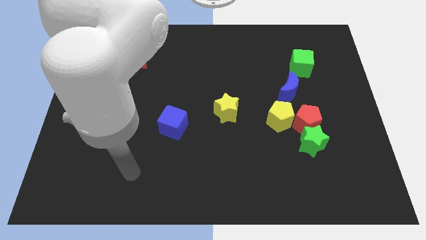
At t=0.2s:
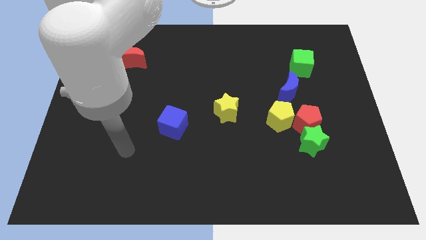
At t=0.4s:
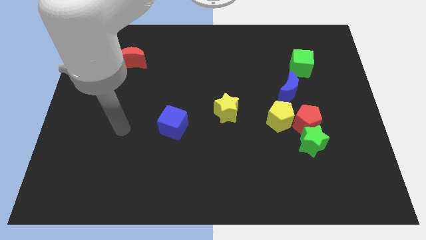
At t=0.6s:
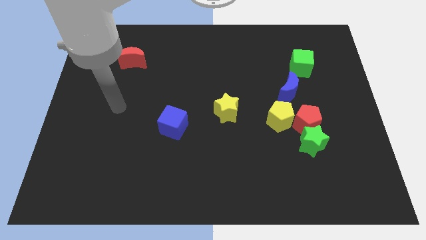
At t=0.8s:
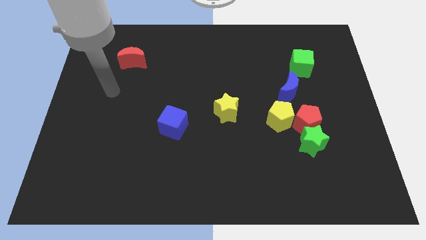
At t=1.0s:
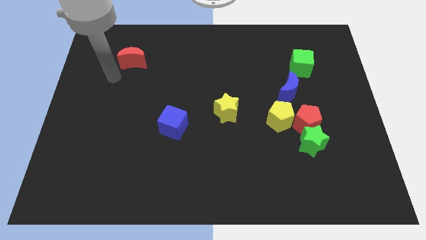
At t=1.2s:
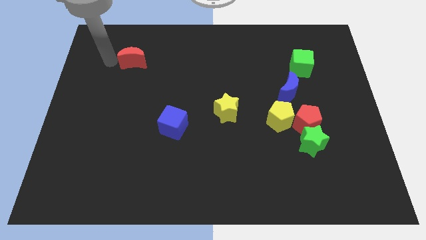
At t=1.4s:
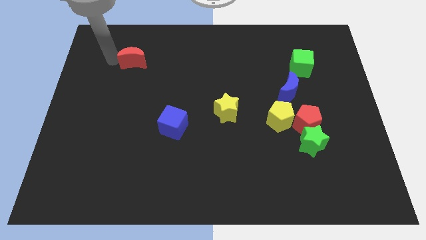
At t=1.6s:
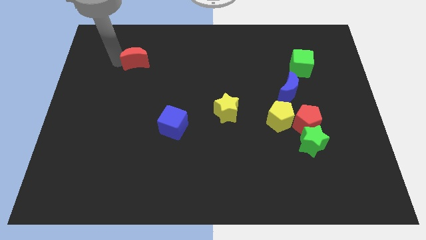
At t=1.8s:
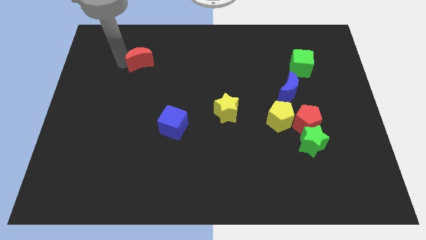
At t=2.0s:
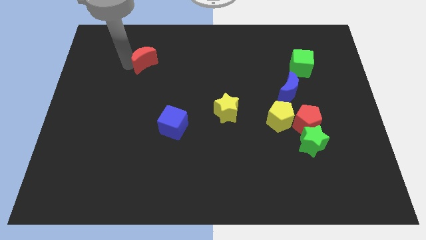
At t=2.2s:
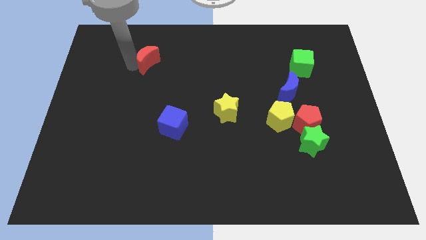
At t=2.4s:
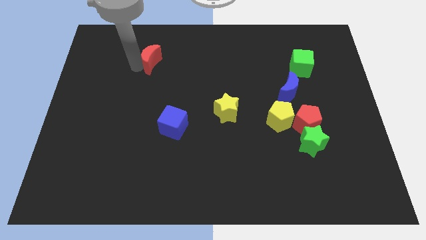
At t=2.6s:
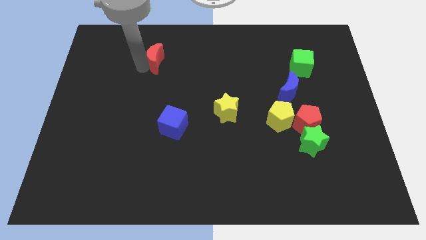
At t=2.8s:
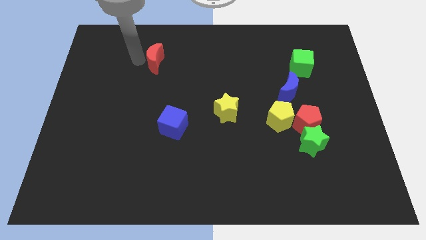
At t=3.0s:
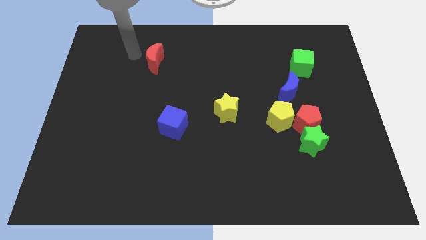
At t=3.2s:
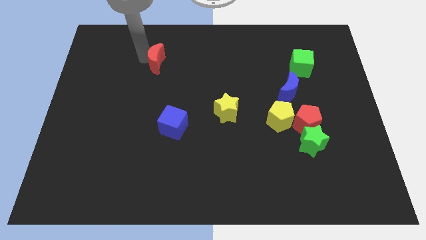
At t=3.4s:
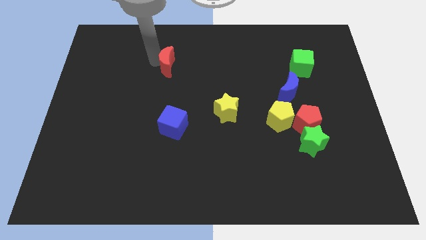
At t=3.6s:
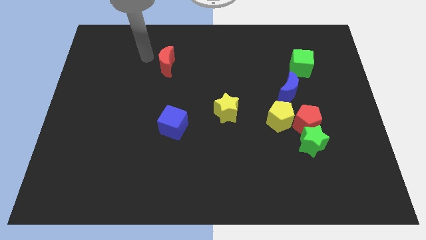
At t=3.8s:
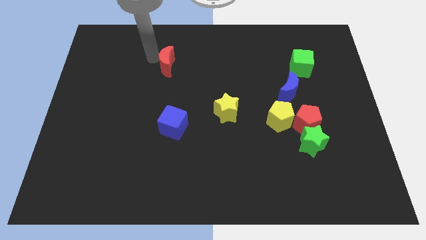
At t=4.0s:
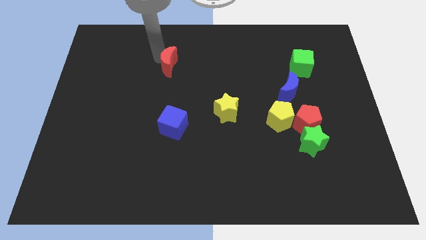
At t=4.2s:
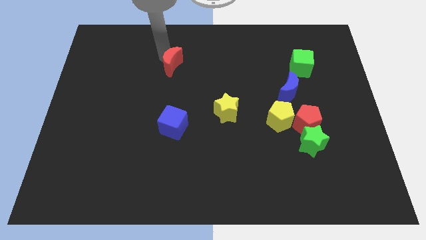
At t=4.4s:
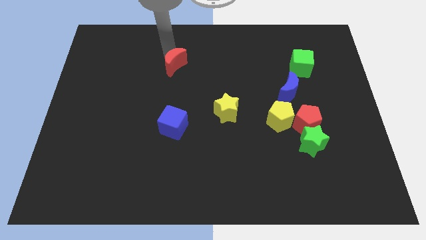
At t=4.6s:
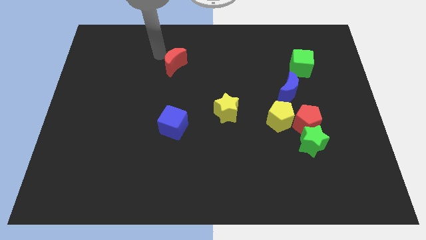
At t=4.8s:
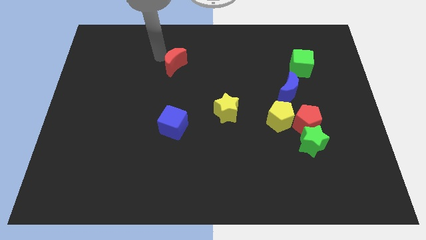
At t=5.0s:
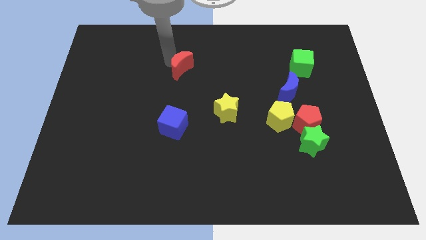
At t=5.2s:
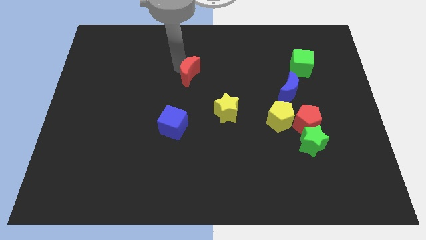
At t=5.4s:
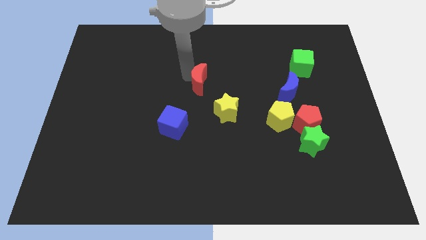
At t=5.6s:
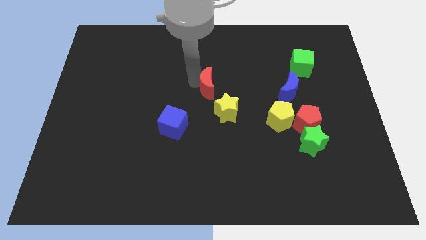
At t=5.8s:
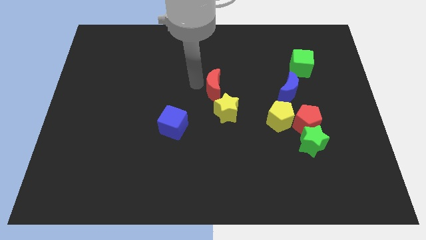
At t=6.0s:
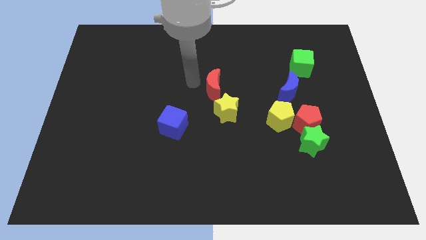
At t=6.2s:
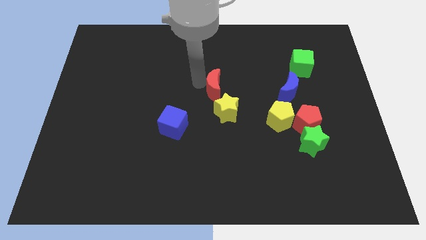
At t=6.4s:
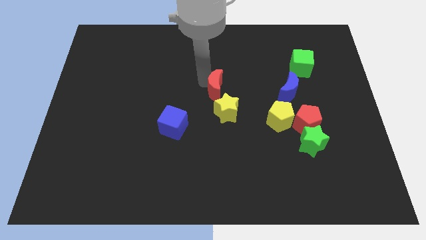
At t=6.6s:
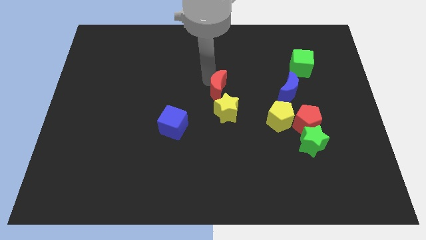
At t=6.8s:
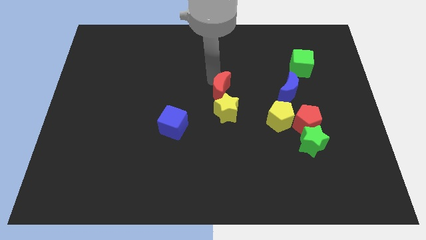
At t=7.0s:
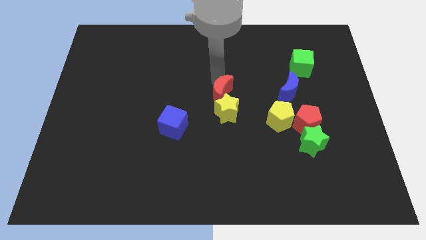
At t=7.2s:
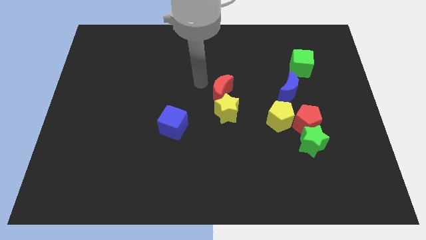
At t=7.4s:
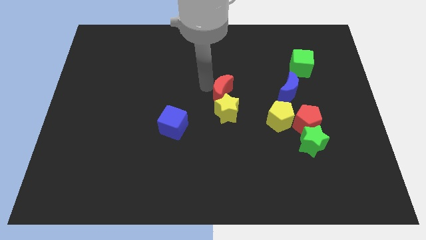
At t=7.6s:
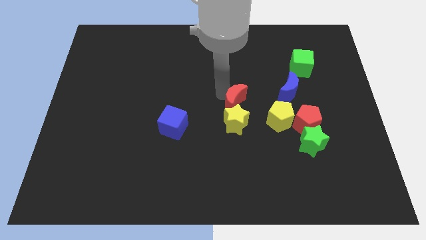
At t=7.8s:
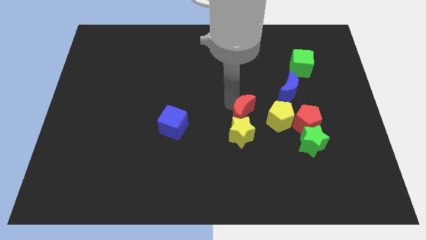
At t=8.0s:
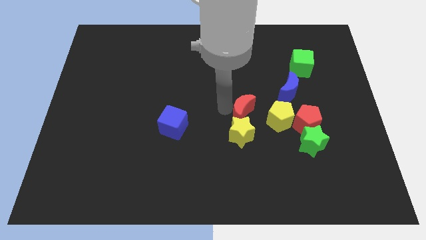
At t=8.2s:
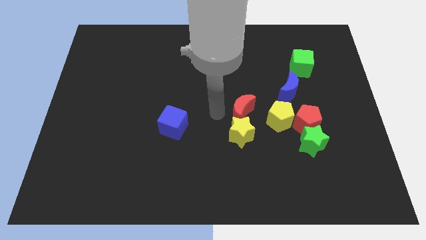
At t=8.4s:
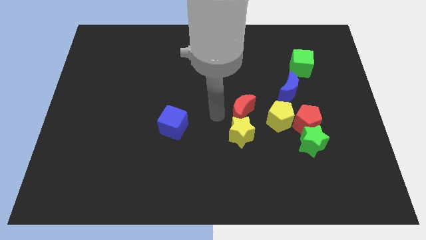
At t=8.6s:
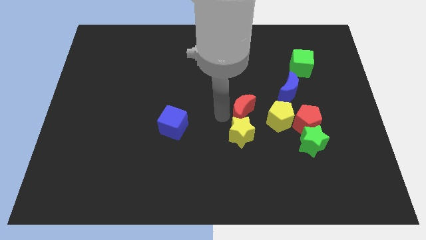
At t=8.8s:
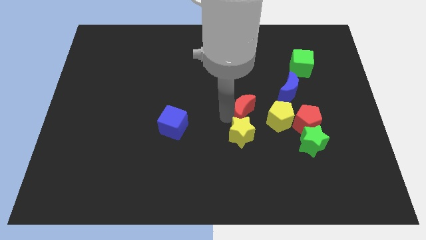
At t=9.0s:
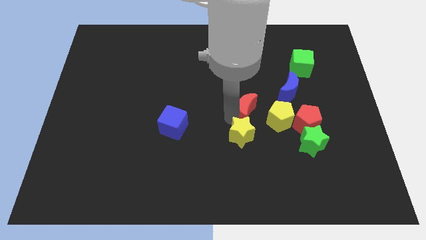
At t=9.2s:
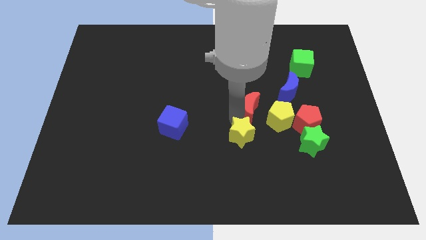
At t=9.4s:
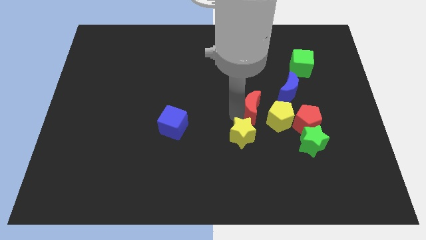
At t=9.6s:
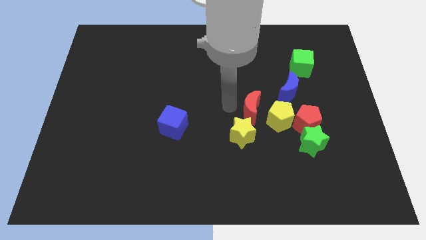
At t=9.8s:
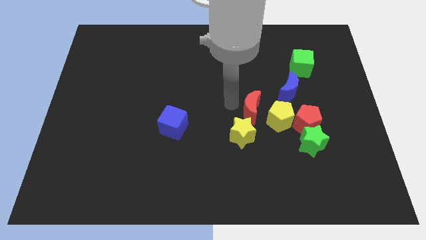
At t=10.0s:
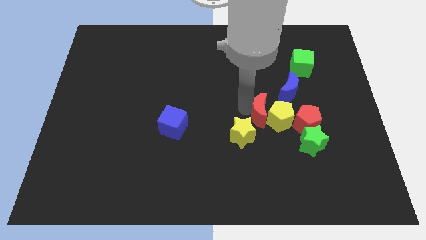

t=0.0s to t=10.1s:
slide the red moon to the yellow pentagon

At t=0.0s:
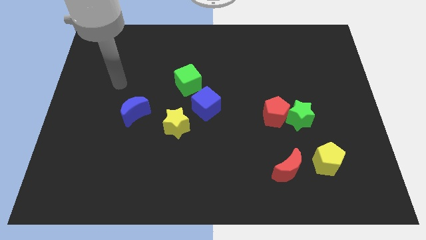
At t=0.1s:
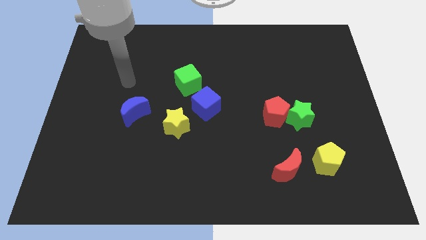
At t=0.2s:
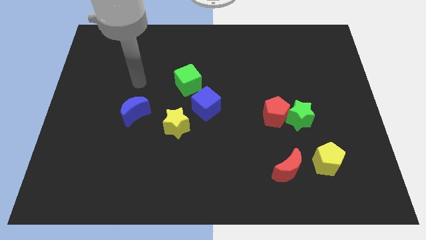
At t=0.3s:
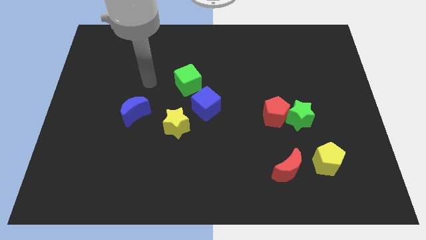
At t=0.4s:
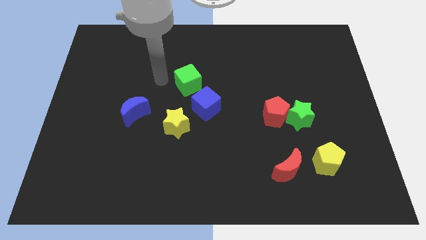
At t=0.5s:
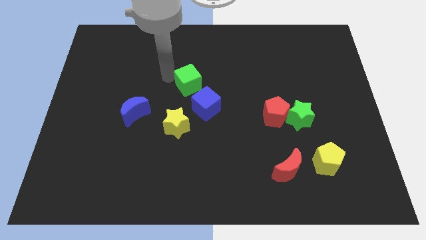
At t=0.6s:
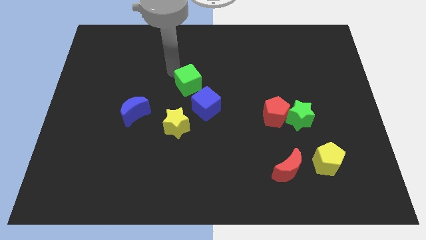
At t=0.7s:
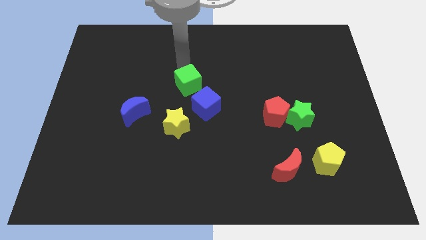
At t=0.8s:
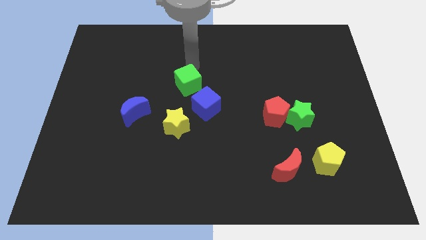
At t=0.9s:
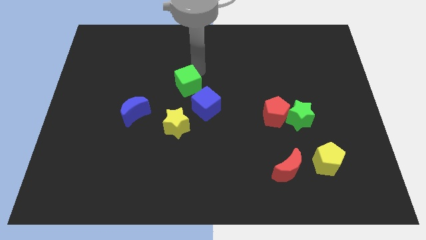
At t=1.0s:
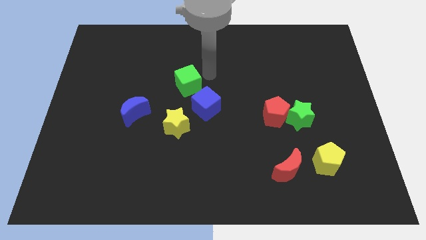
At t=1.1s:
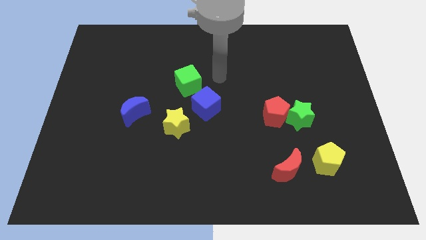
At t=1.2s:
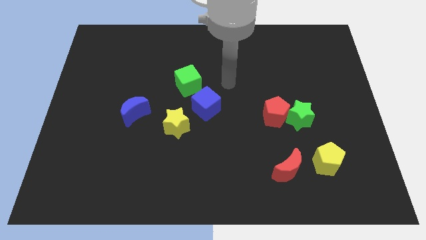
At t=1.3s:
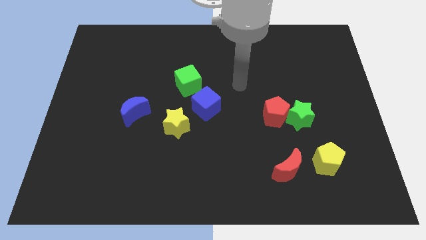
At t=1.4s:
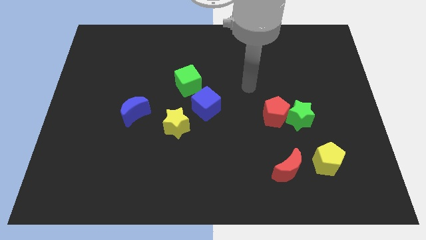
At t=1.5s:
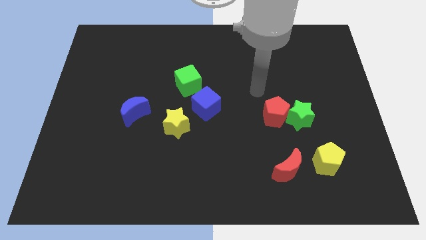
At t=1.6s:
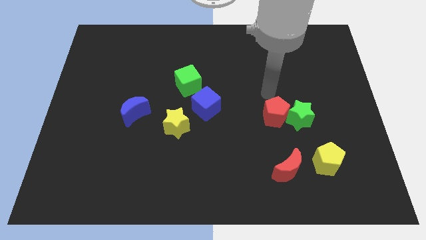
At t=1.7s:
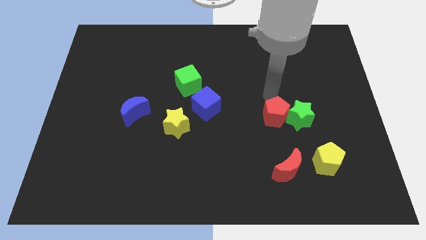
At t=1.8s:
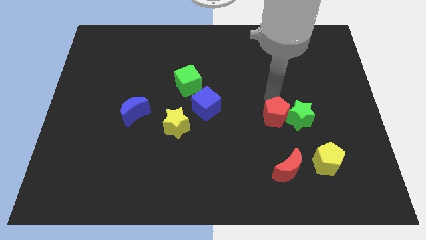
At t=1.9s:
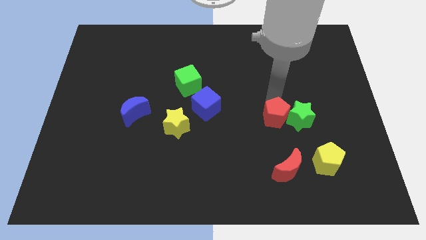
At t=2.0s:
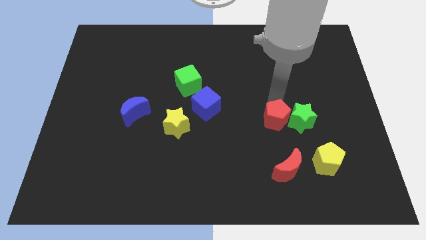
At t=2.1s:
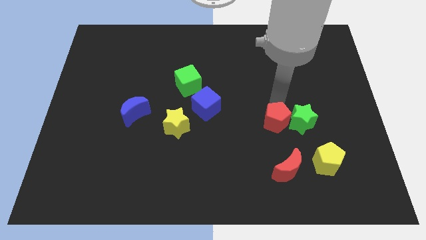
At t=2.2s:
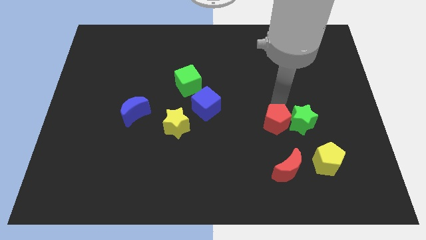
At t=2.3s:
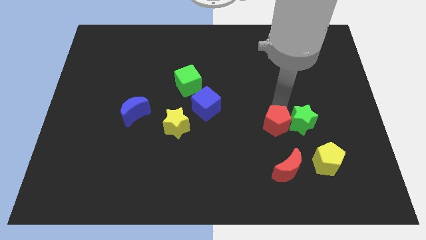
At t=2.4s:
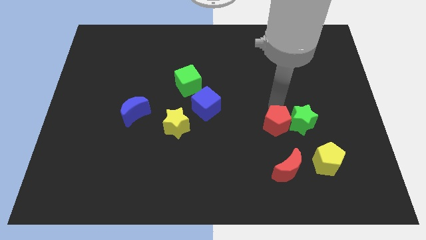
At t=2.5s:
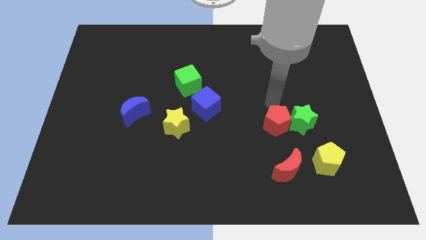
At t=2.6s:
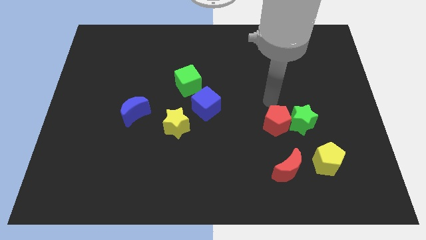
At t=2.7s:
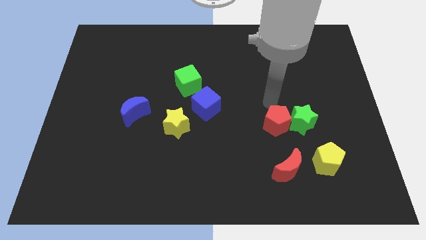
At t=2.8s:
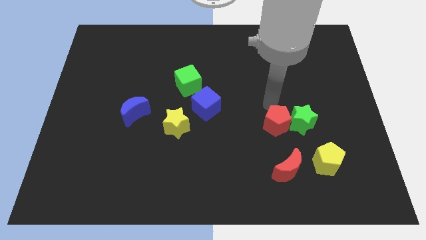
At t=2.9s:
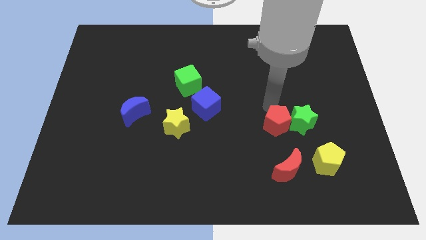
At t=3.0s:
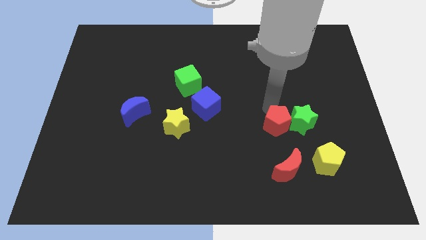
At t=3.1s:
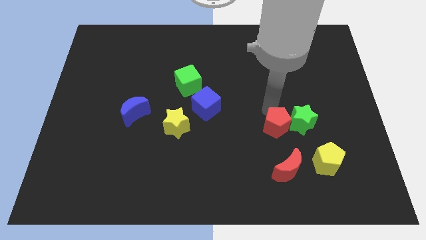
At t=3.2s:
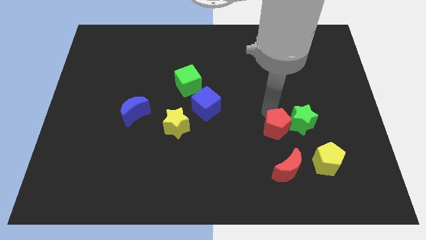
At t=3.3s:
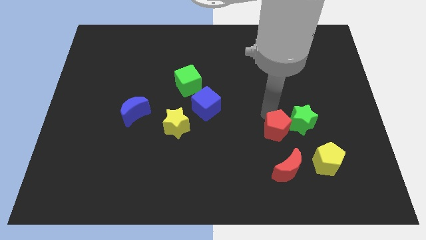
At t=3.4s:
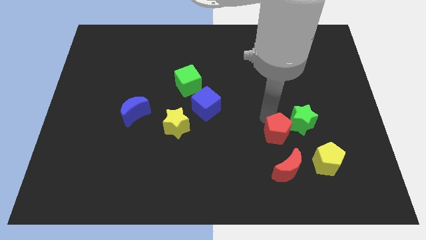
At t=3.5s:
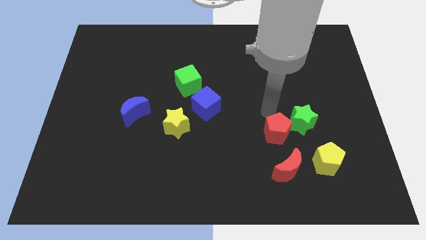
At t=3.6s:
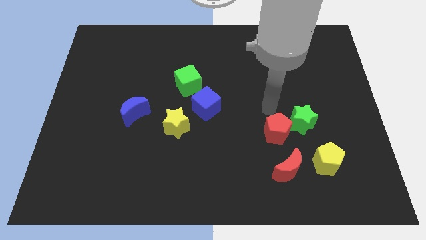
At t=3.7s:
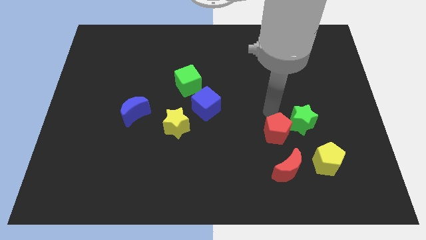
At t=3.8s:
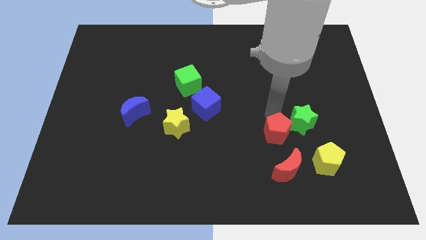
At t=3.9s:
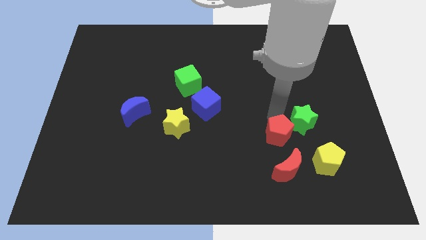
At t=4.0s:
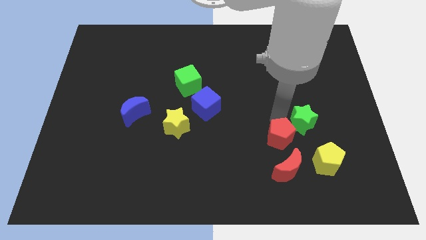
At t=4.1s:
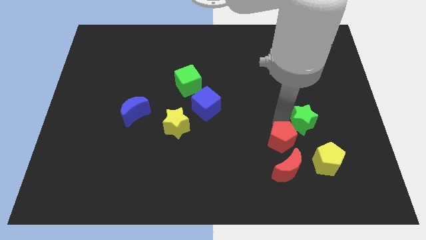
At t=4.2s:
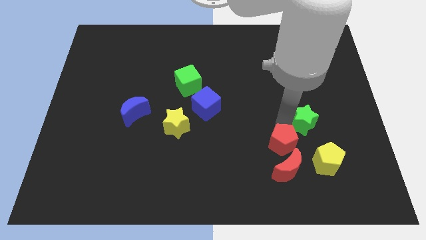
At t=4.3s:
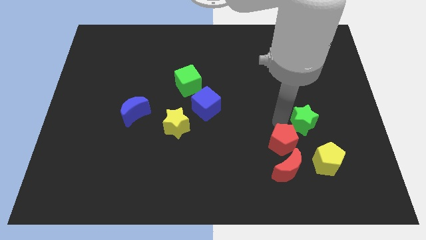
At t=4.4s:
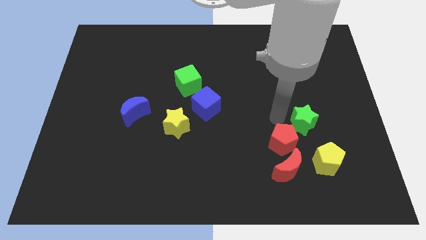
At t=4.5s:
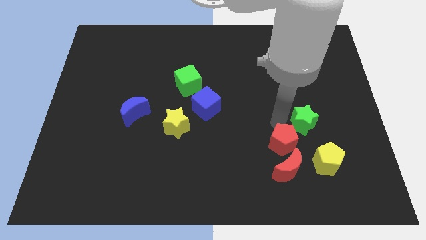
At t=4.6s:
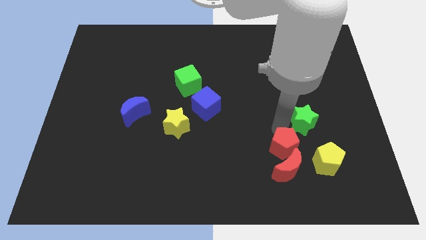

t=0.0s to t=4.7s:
put the red pentagon towards the red moon
